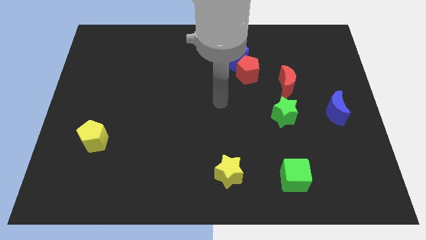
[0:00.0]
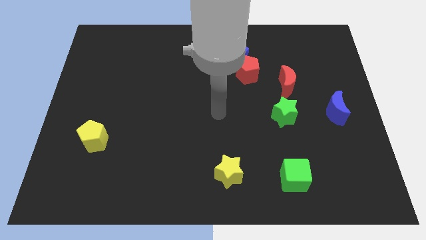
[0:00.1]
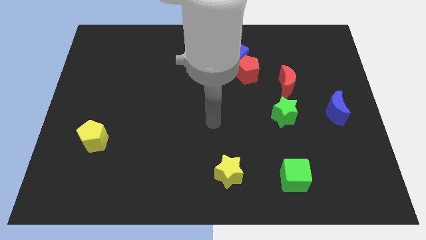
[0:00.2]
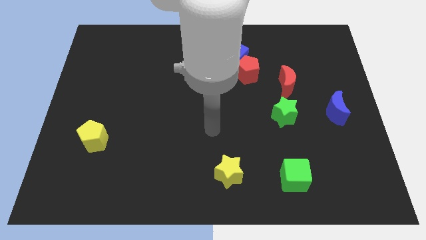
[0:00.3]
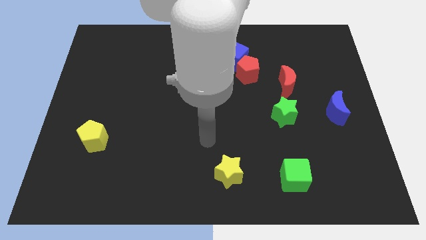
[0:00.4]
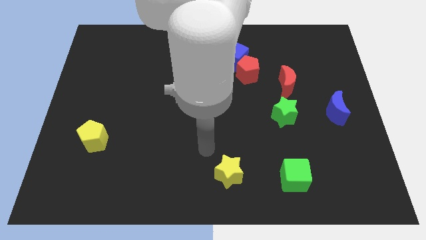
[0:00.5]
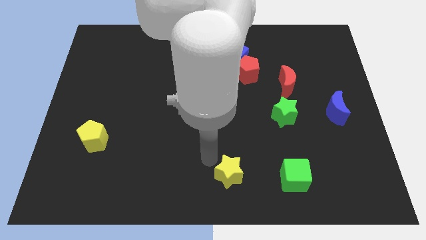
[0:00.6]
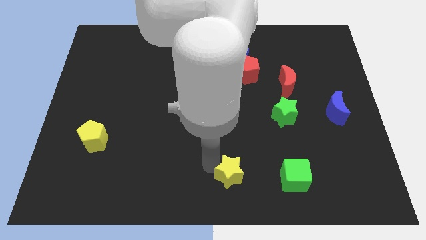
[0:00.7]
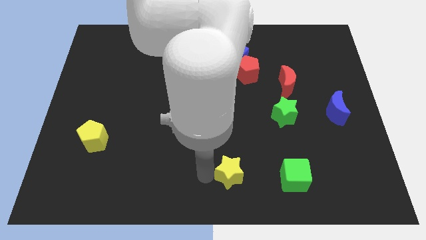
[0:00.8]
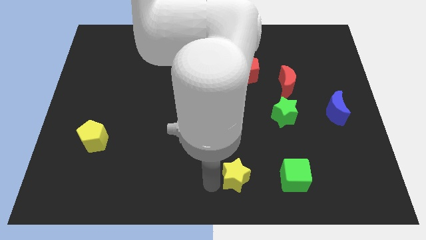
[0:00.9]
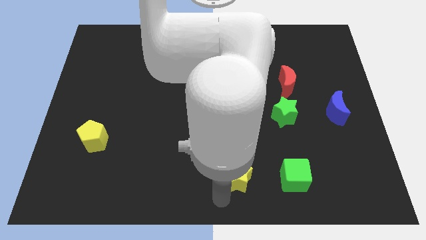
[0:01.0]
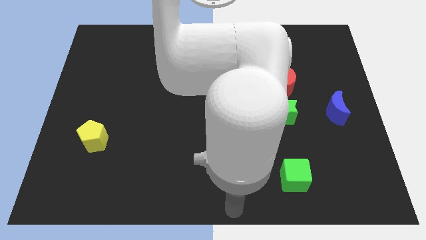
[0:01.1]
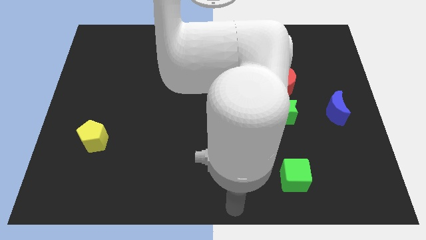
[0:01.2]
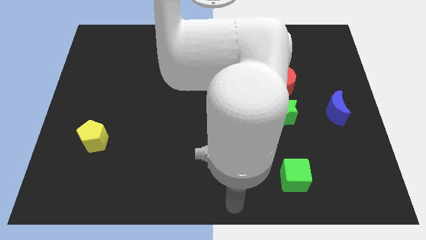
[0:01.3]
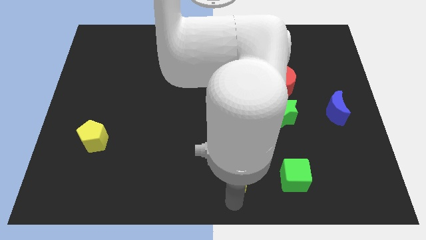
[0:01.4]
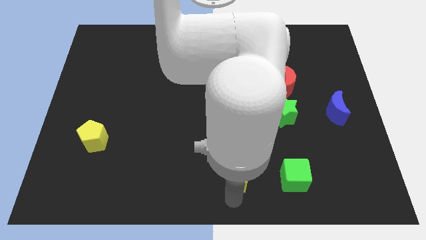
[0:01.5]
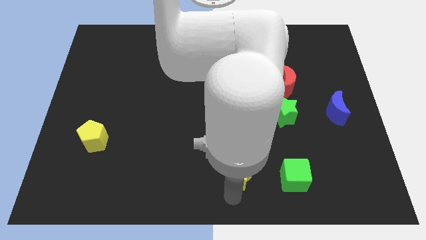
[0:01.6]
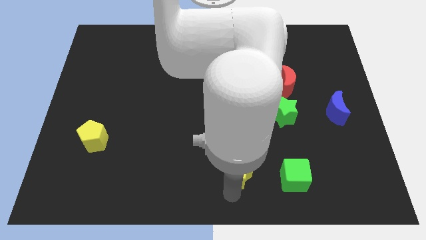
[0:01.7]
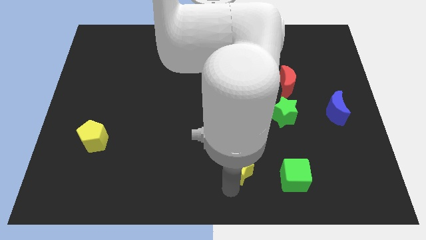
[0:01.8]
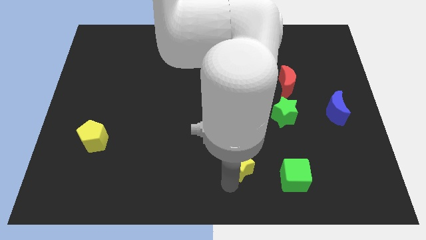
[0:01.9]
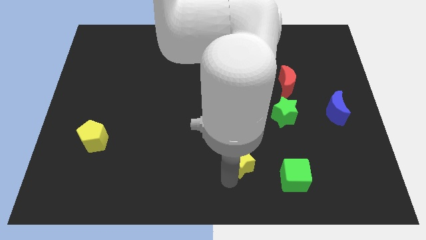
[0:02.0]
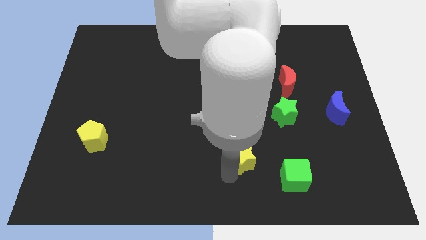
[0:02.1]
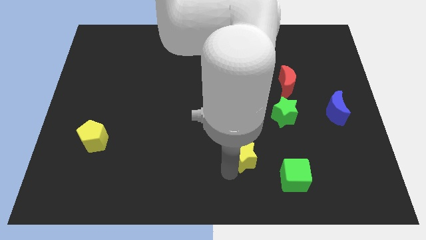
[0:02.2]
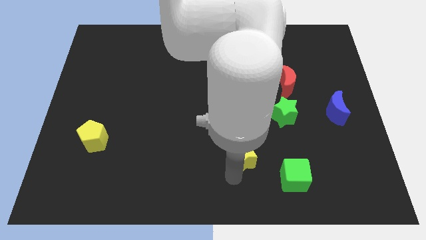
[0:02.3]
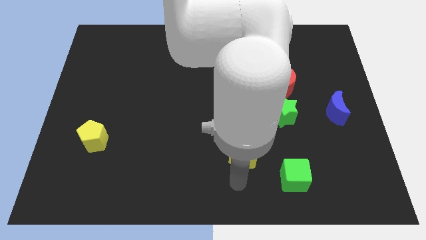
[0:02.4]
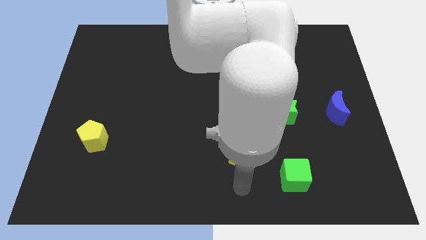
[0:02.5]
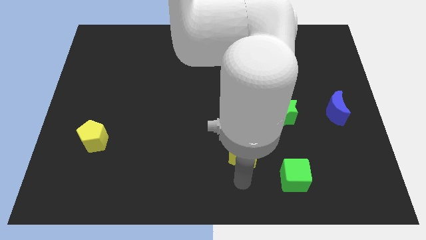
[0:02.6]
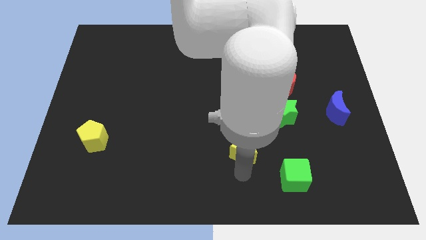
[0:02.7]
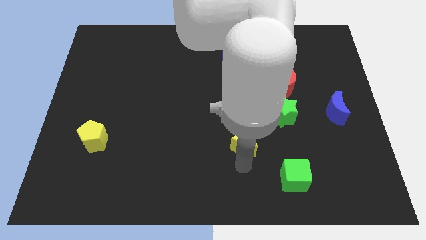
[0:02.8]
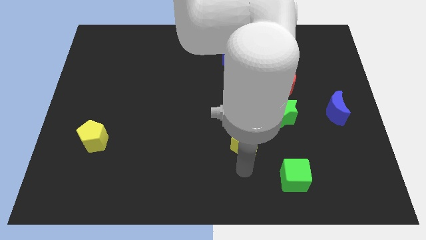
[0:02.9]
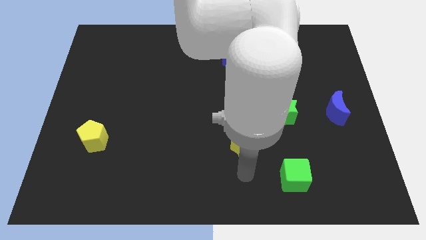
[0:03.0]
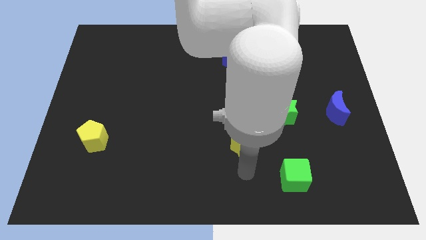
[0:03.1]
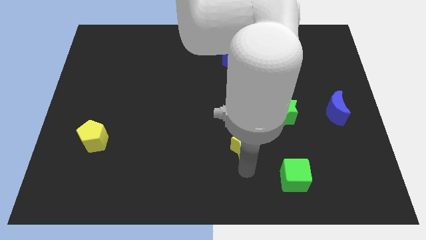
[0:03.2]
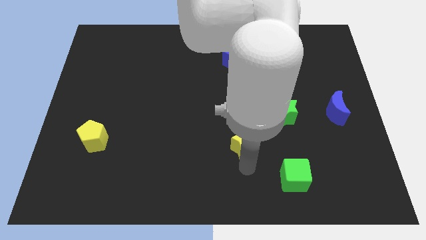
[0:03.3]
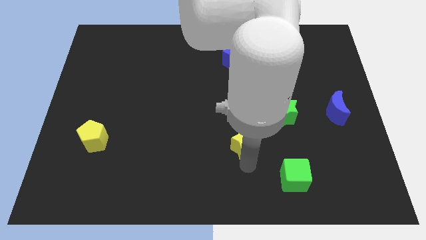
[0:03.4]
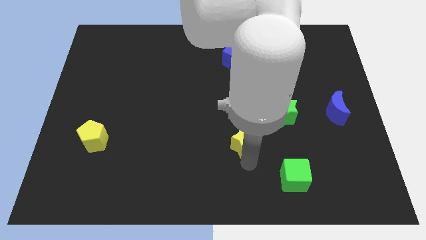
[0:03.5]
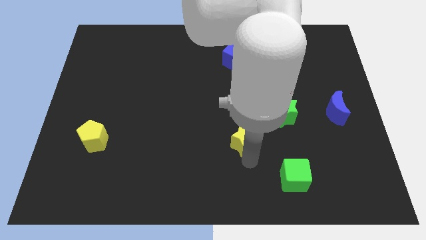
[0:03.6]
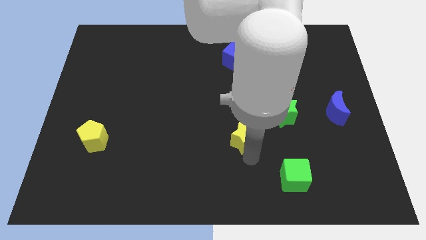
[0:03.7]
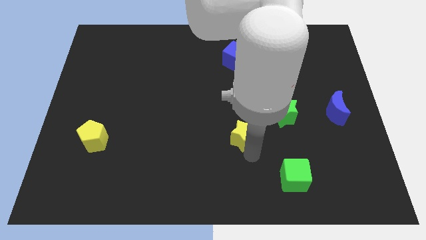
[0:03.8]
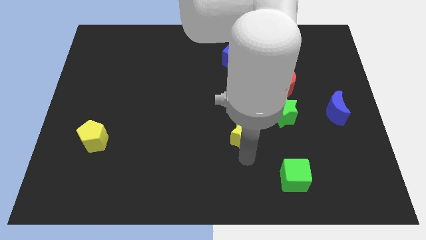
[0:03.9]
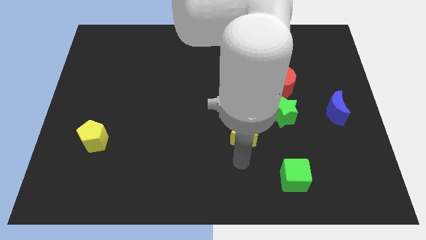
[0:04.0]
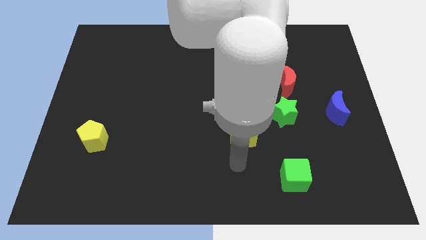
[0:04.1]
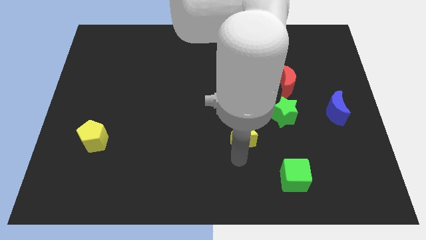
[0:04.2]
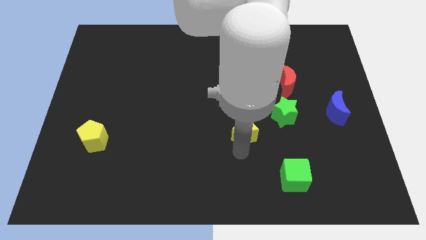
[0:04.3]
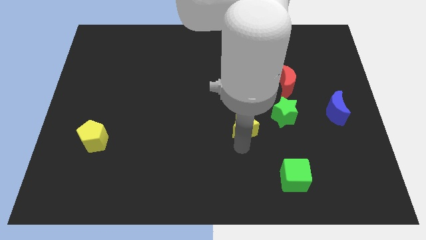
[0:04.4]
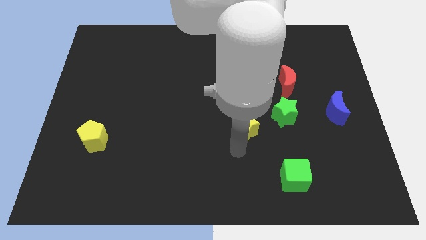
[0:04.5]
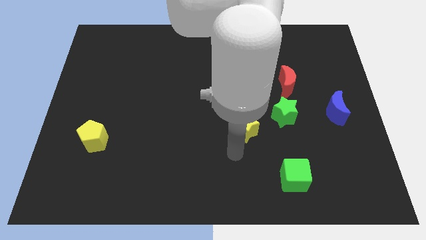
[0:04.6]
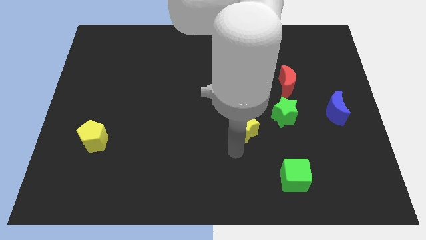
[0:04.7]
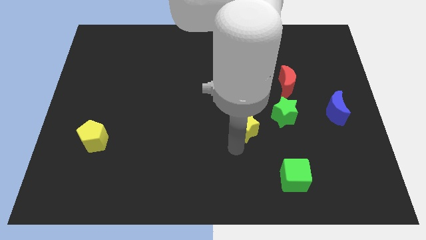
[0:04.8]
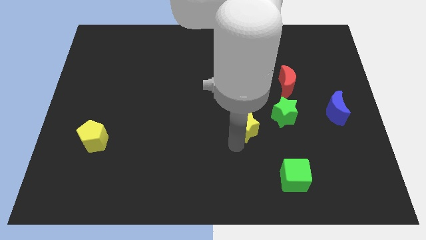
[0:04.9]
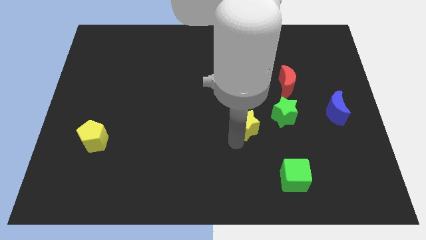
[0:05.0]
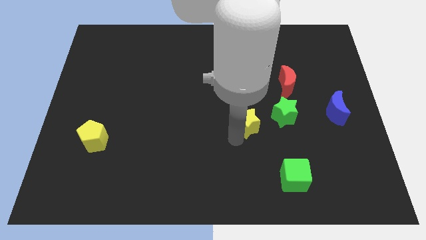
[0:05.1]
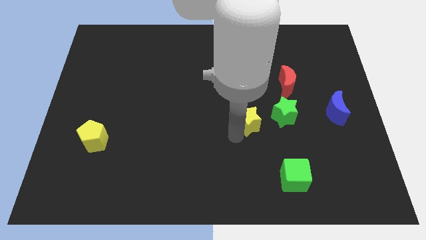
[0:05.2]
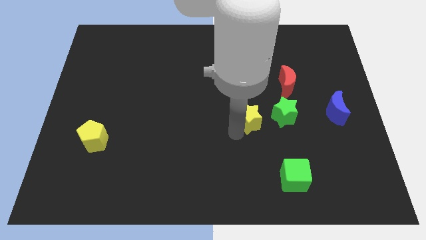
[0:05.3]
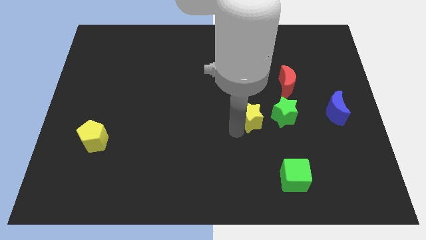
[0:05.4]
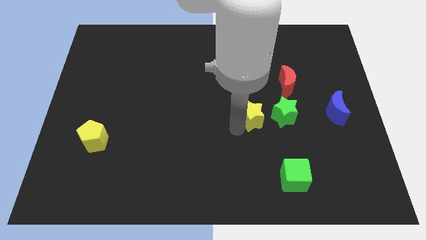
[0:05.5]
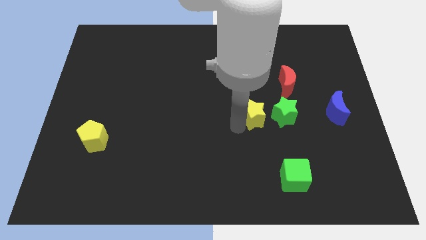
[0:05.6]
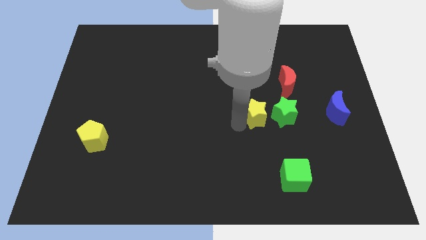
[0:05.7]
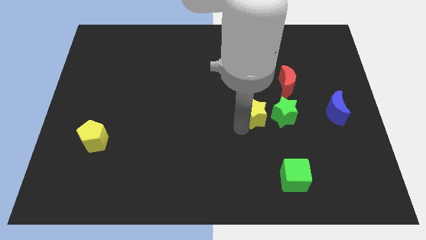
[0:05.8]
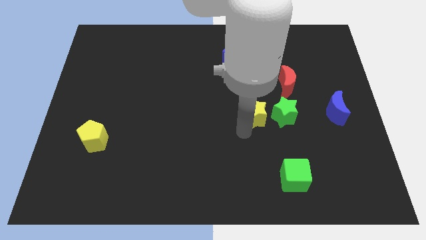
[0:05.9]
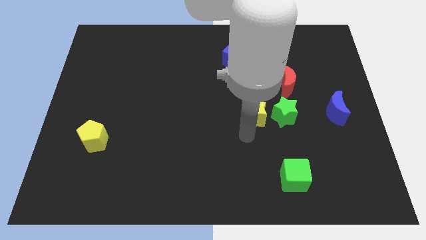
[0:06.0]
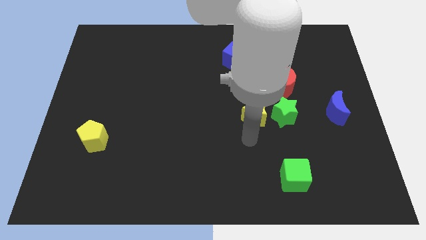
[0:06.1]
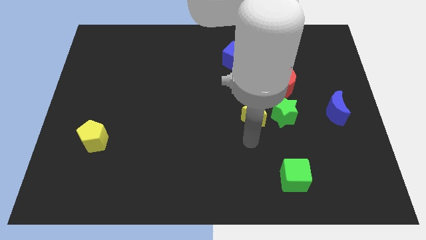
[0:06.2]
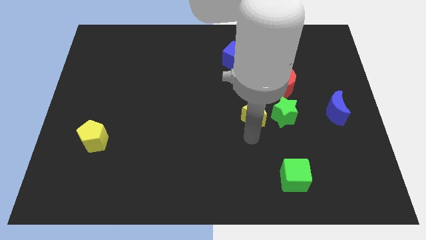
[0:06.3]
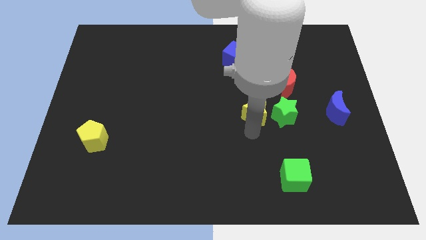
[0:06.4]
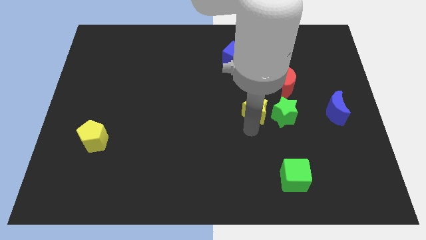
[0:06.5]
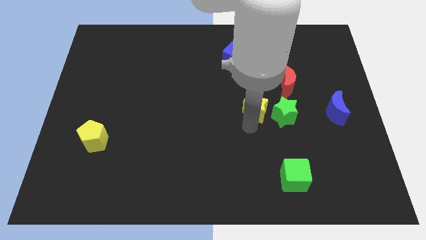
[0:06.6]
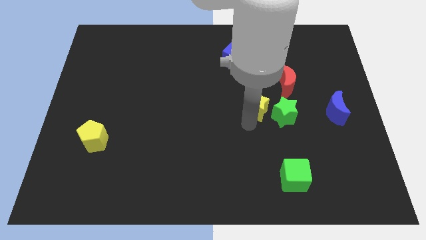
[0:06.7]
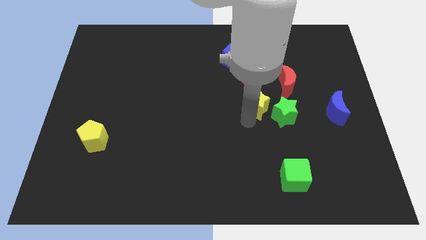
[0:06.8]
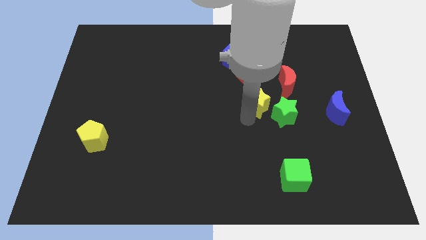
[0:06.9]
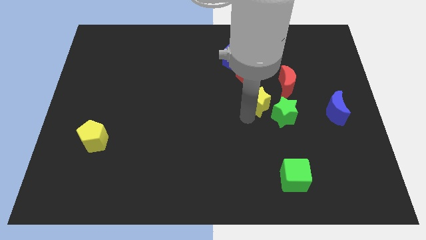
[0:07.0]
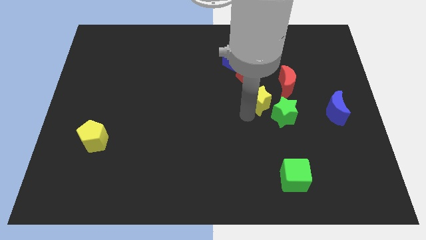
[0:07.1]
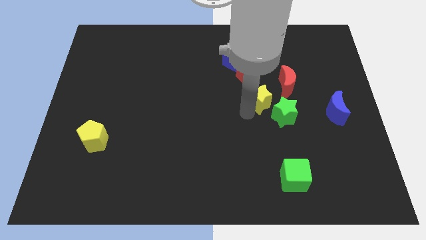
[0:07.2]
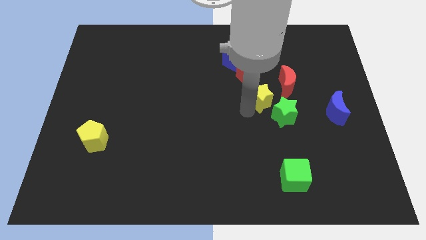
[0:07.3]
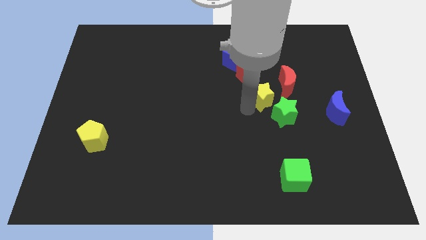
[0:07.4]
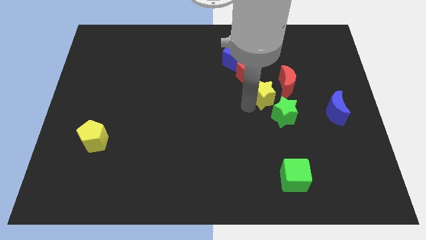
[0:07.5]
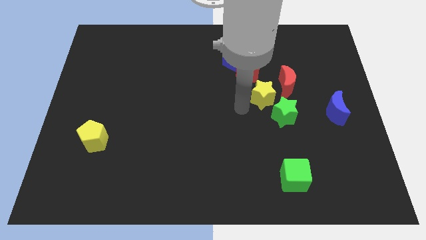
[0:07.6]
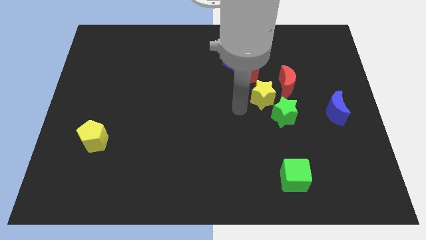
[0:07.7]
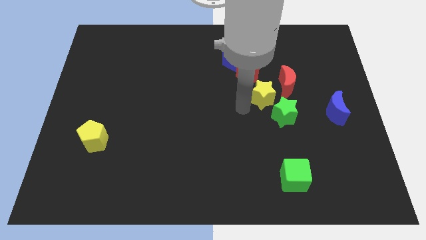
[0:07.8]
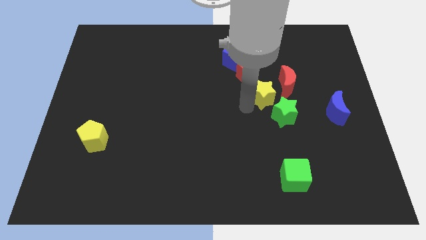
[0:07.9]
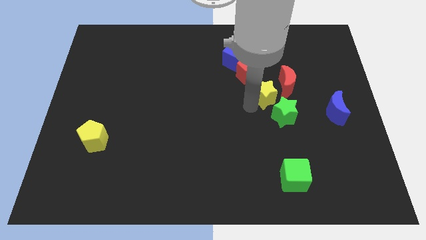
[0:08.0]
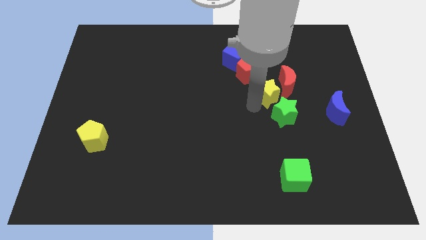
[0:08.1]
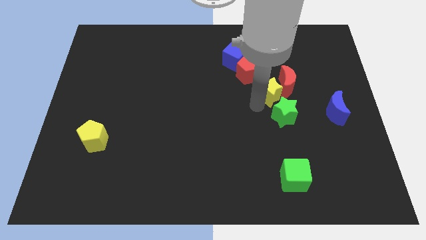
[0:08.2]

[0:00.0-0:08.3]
put the yellow star towards the red moon
